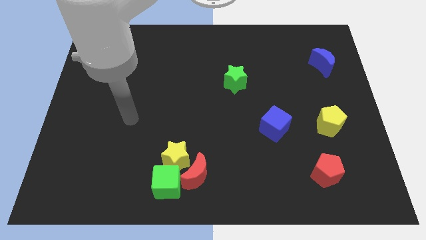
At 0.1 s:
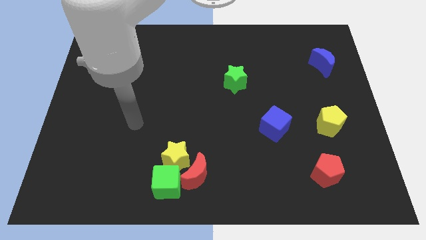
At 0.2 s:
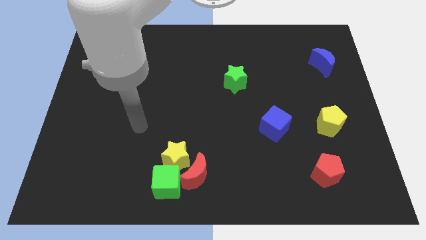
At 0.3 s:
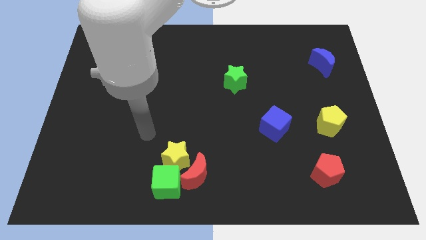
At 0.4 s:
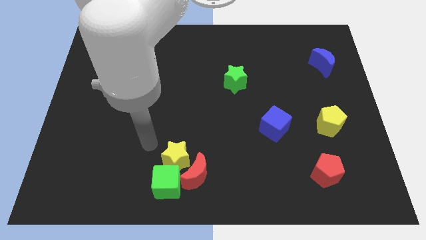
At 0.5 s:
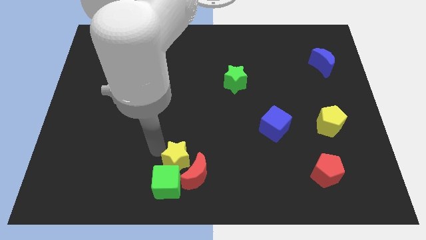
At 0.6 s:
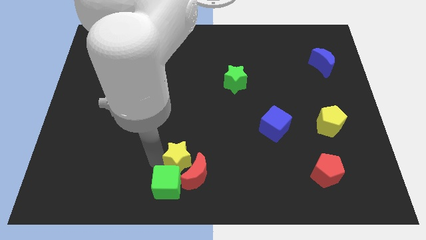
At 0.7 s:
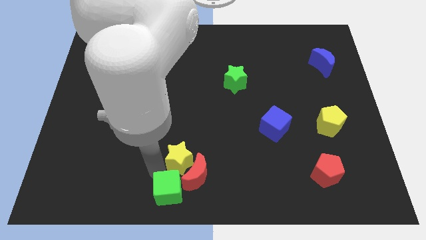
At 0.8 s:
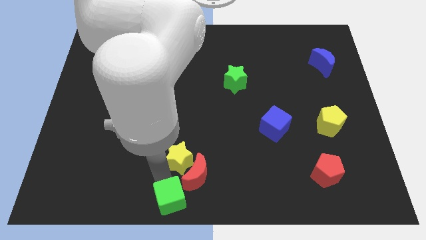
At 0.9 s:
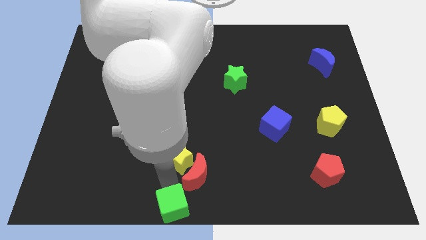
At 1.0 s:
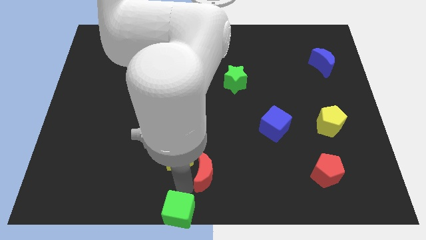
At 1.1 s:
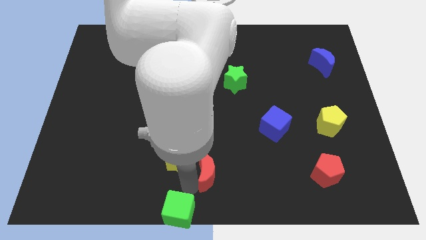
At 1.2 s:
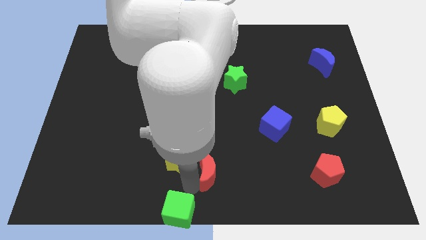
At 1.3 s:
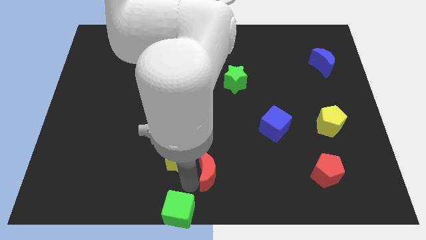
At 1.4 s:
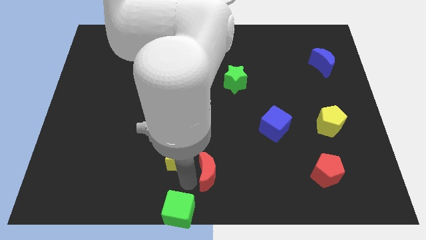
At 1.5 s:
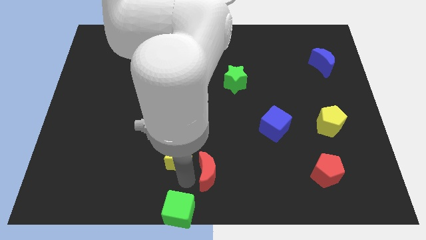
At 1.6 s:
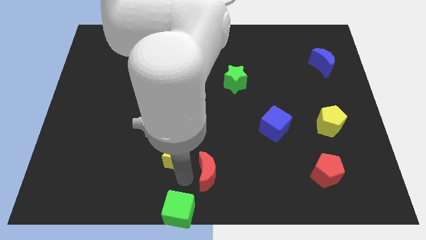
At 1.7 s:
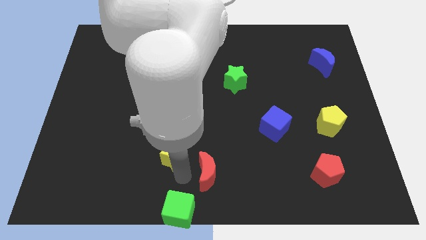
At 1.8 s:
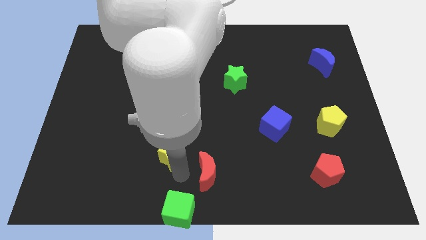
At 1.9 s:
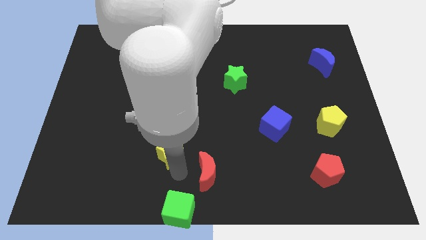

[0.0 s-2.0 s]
move the yellow star away from the red moon and green cube

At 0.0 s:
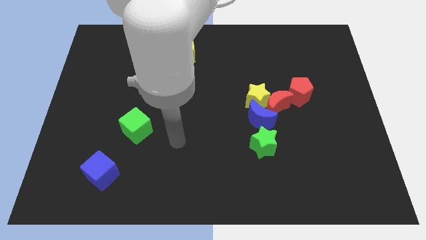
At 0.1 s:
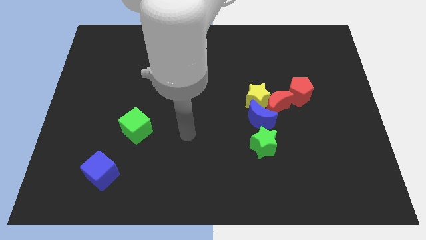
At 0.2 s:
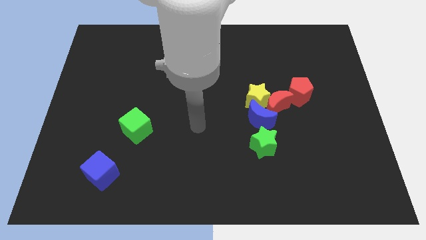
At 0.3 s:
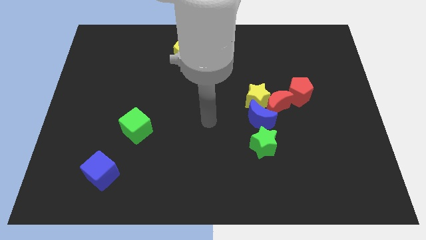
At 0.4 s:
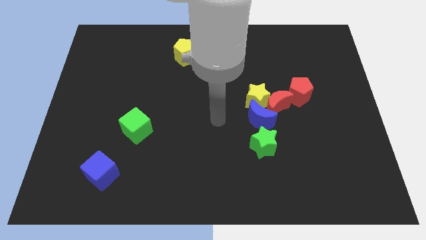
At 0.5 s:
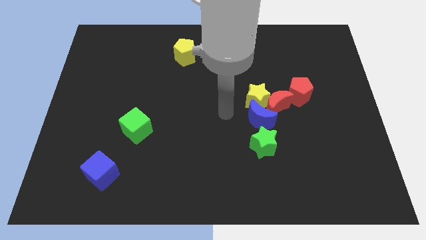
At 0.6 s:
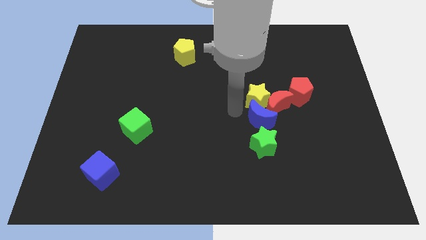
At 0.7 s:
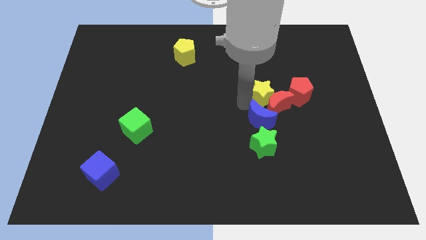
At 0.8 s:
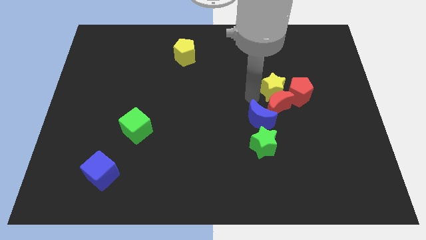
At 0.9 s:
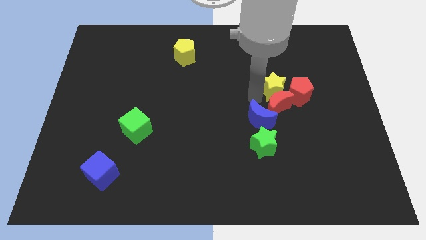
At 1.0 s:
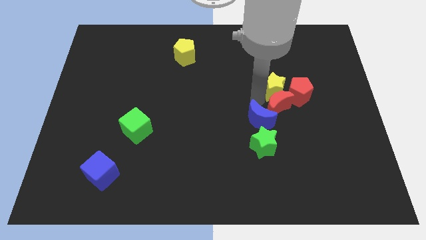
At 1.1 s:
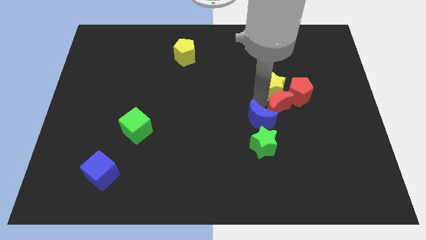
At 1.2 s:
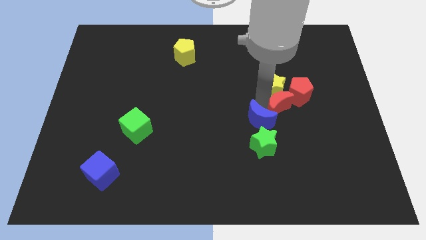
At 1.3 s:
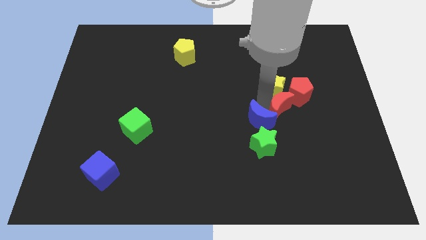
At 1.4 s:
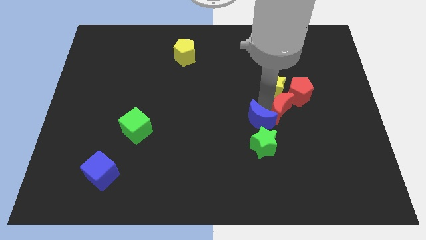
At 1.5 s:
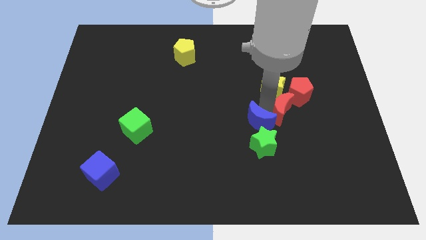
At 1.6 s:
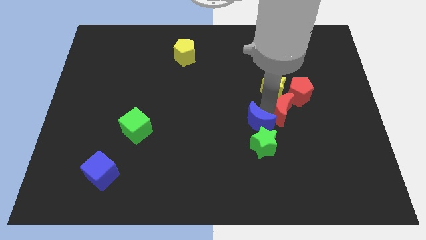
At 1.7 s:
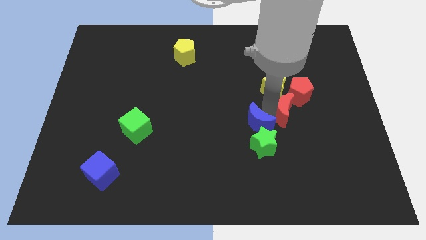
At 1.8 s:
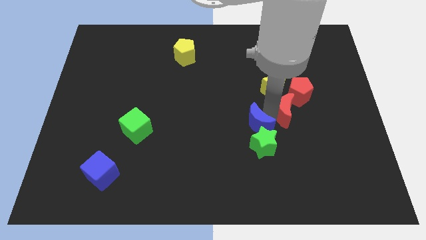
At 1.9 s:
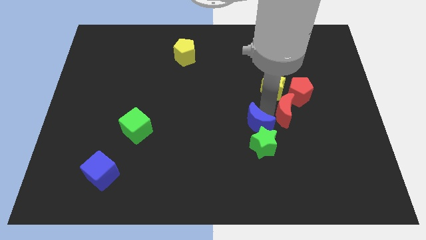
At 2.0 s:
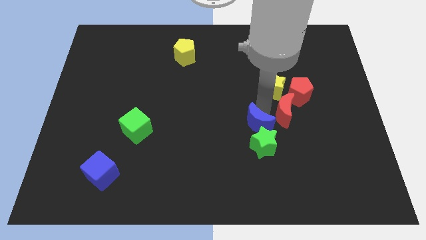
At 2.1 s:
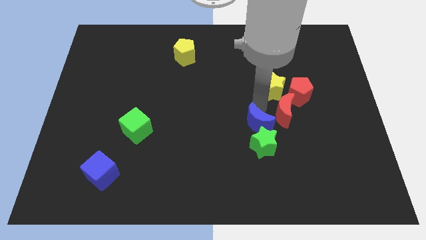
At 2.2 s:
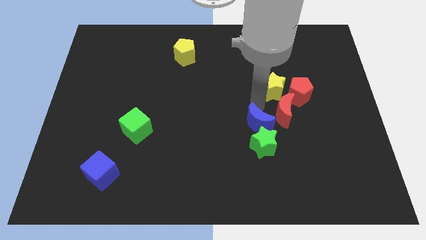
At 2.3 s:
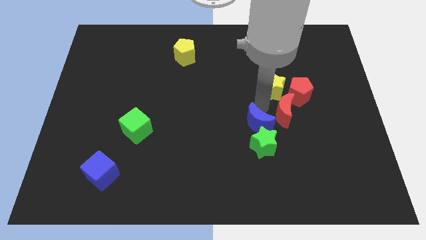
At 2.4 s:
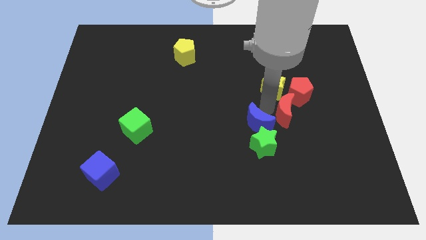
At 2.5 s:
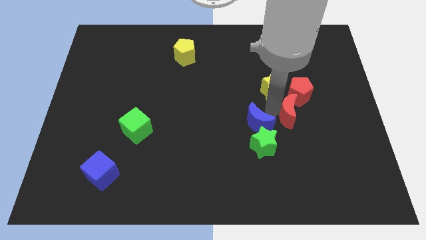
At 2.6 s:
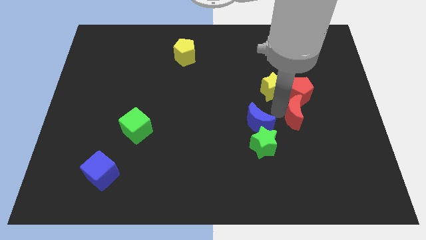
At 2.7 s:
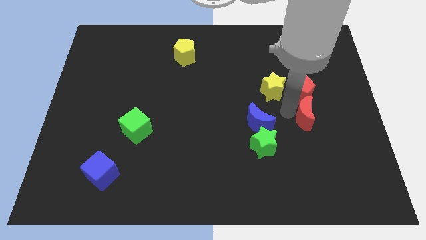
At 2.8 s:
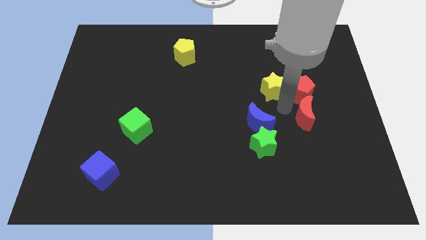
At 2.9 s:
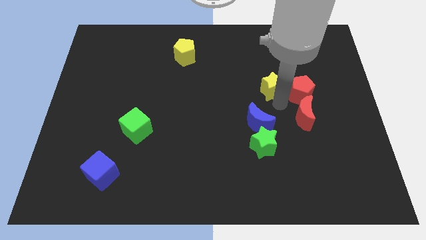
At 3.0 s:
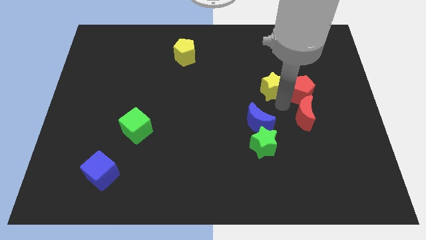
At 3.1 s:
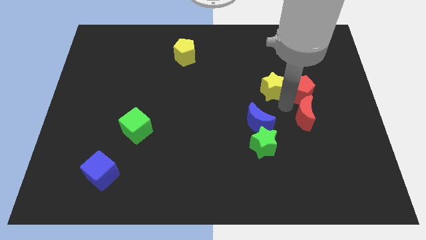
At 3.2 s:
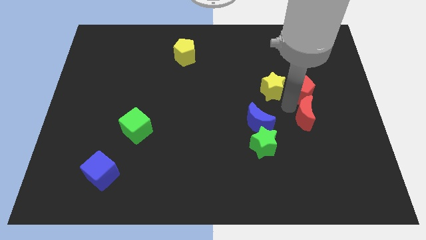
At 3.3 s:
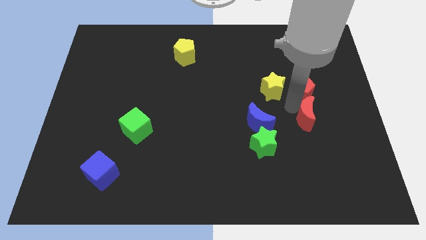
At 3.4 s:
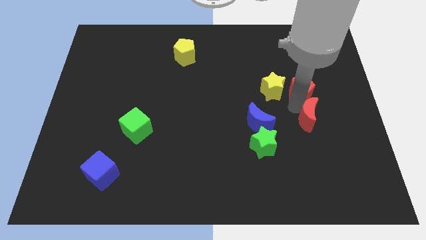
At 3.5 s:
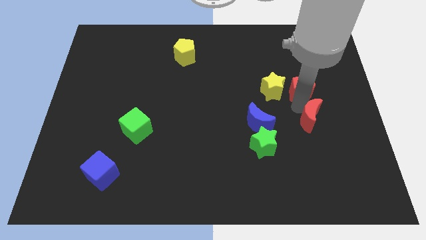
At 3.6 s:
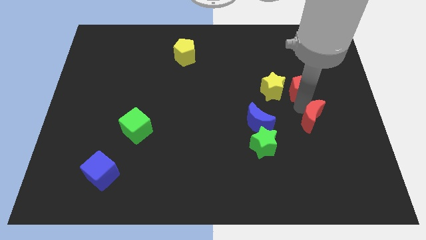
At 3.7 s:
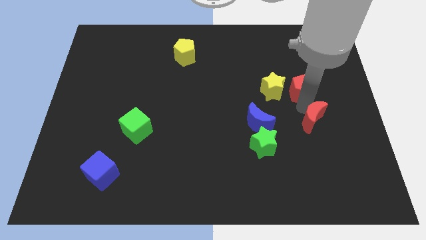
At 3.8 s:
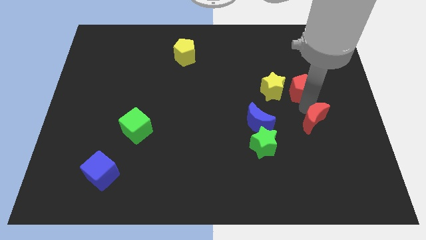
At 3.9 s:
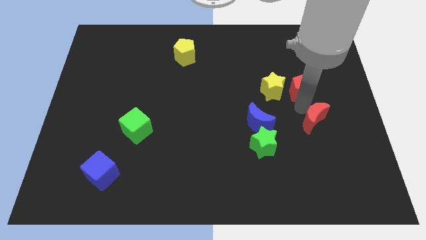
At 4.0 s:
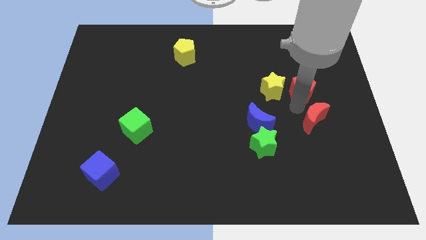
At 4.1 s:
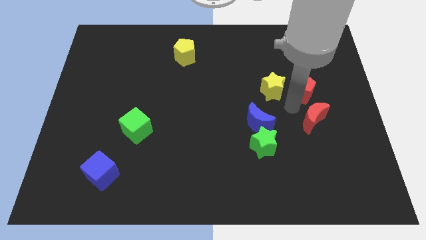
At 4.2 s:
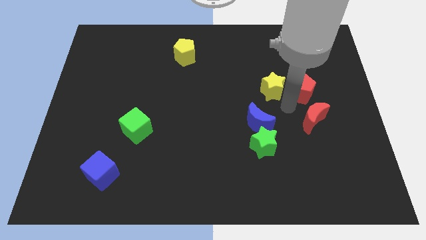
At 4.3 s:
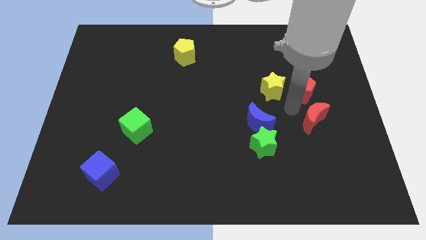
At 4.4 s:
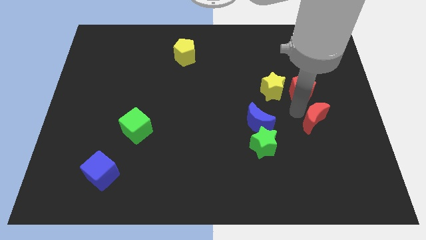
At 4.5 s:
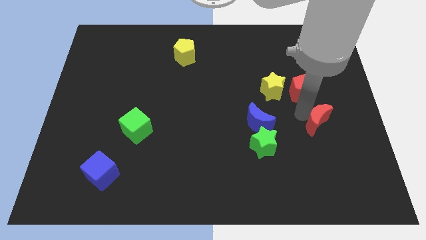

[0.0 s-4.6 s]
move the red moon away from the group of blocks

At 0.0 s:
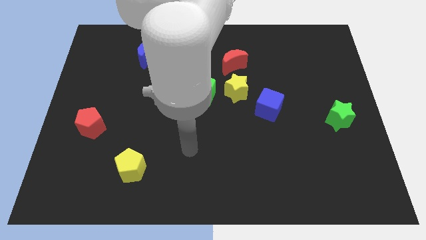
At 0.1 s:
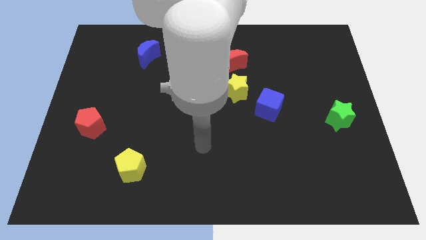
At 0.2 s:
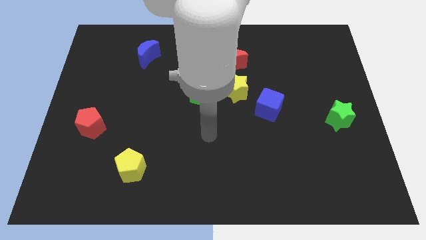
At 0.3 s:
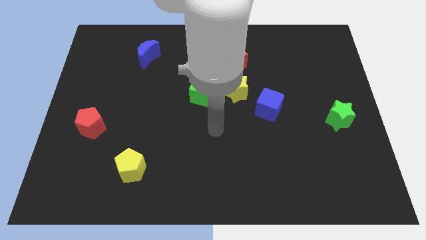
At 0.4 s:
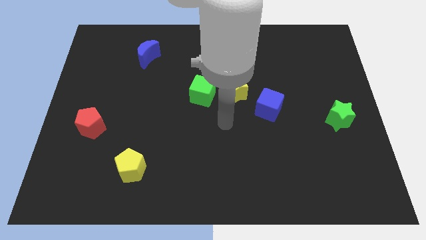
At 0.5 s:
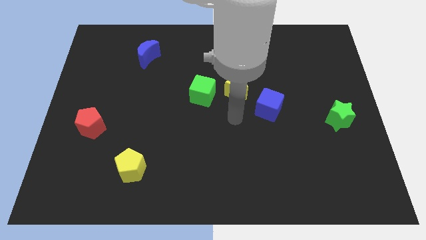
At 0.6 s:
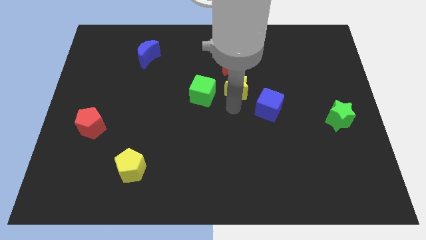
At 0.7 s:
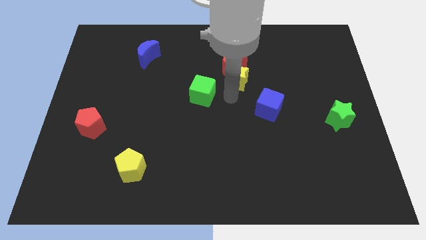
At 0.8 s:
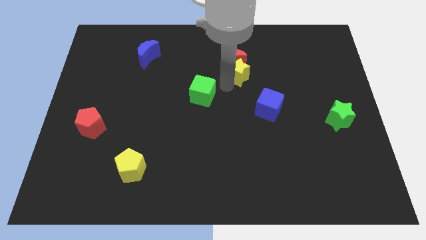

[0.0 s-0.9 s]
separate the green cube from the yellow star

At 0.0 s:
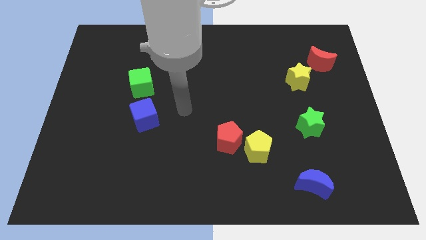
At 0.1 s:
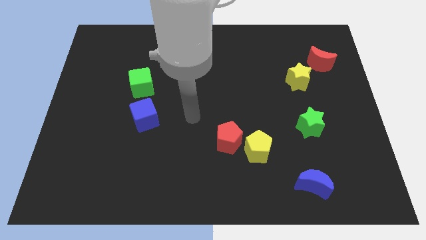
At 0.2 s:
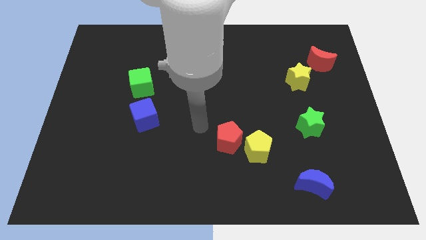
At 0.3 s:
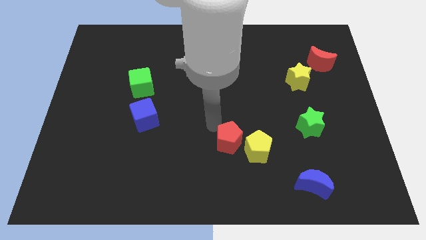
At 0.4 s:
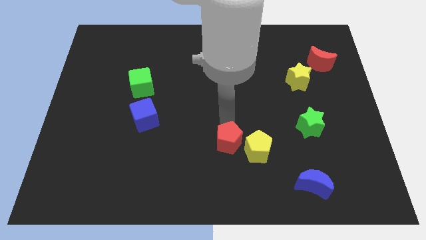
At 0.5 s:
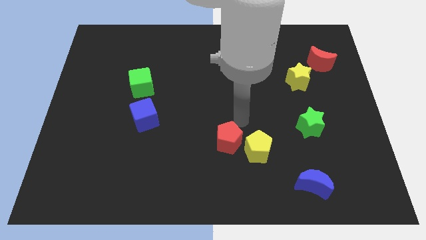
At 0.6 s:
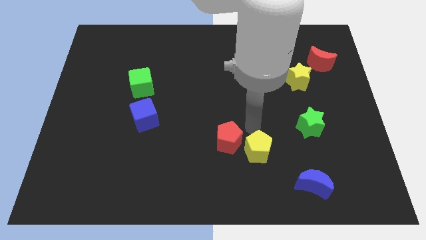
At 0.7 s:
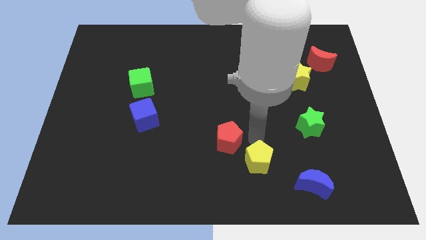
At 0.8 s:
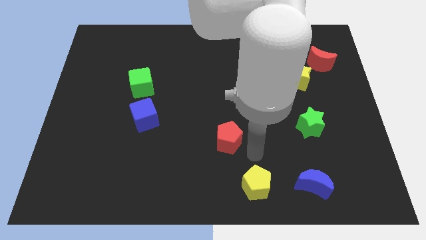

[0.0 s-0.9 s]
separate the red pentagon from the yellow pentagon

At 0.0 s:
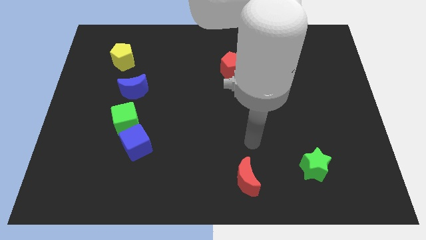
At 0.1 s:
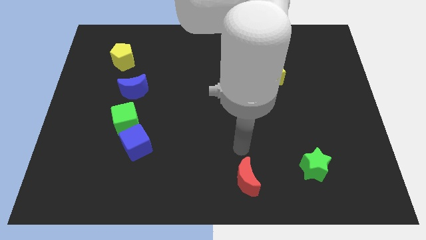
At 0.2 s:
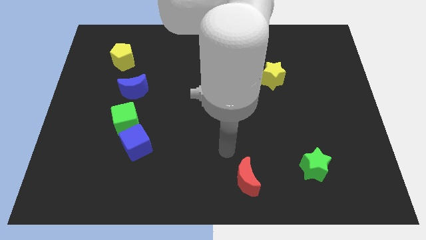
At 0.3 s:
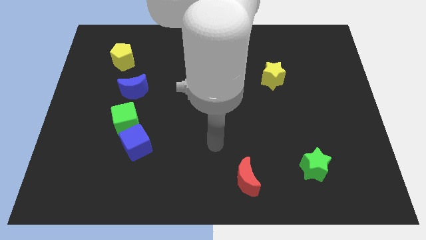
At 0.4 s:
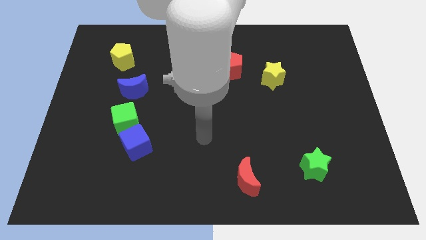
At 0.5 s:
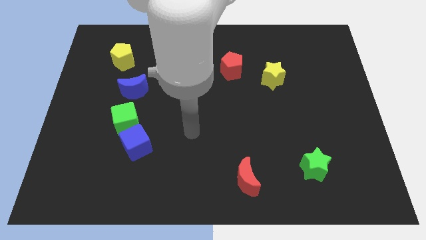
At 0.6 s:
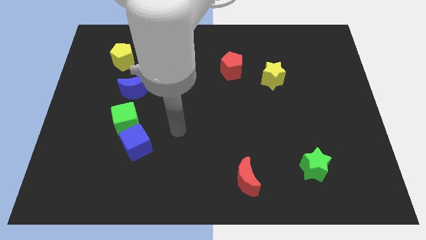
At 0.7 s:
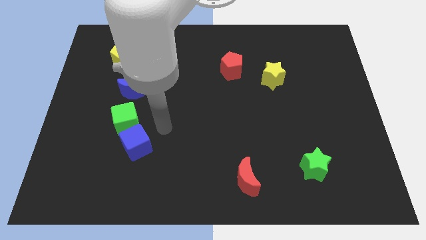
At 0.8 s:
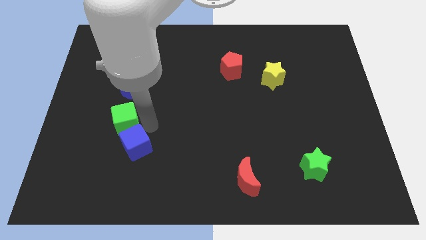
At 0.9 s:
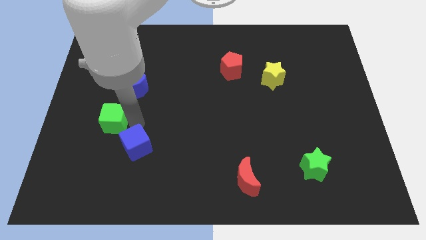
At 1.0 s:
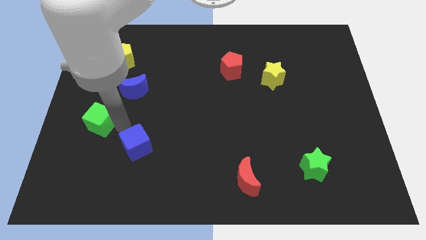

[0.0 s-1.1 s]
separate the blue cube from the green cube
